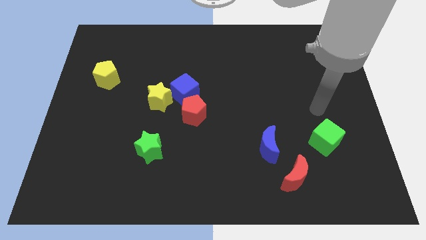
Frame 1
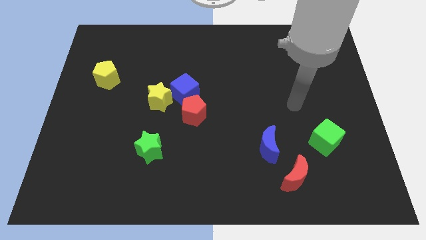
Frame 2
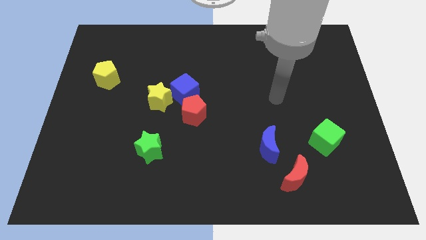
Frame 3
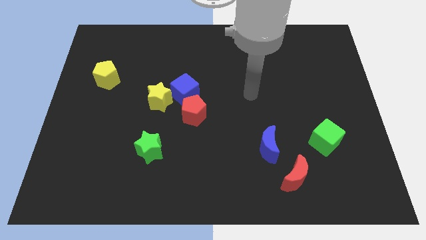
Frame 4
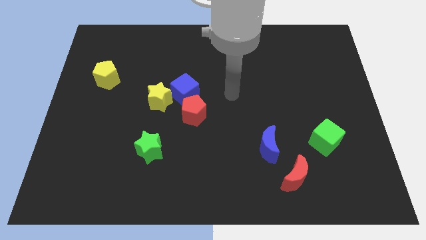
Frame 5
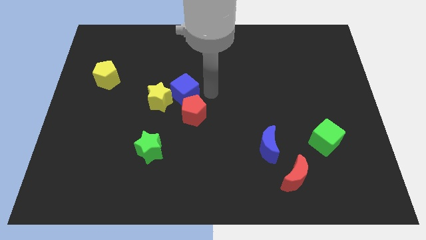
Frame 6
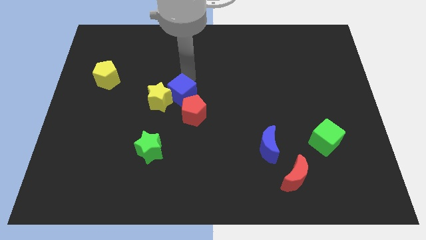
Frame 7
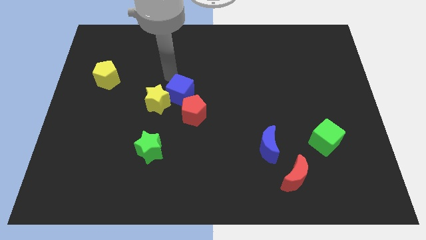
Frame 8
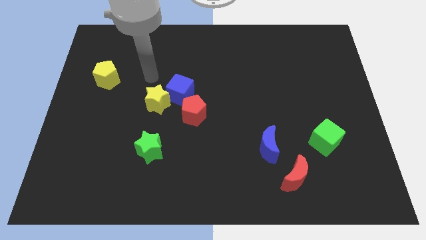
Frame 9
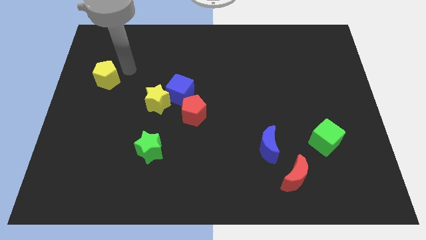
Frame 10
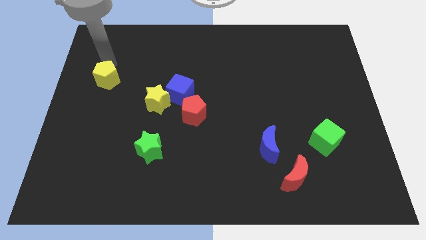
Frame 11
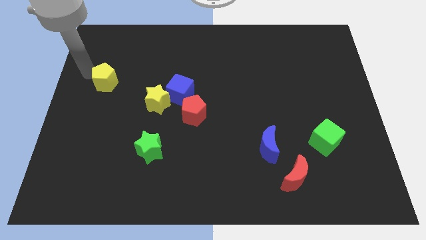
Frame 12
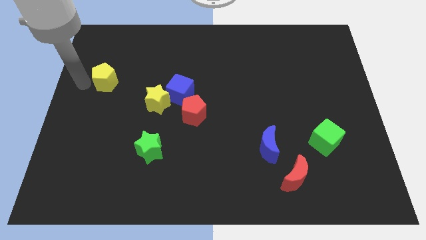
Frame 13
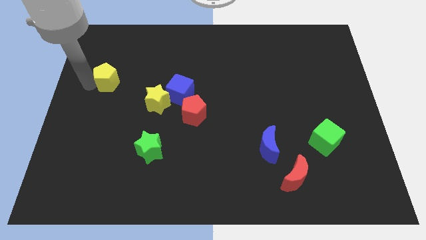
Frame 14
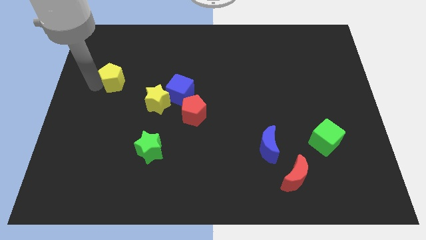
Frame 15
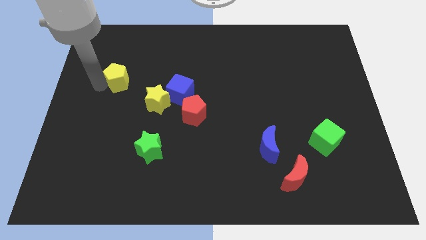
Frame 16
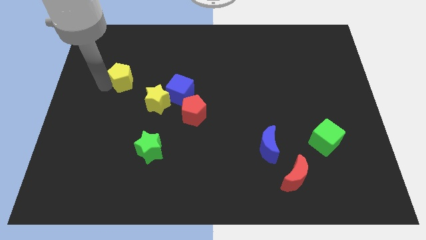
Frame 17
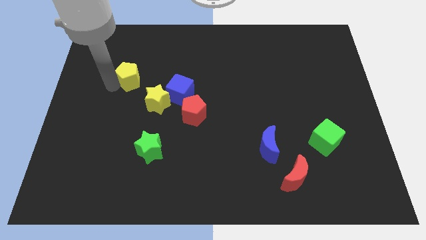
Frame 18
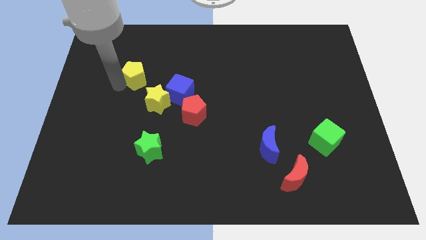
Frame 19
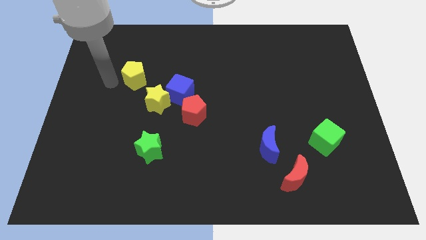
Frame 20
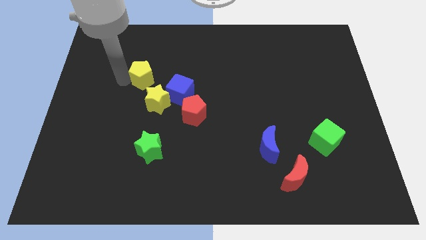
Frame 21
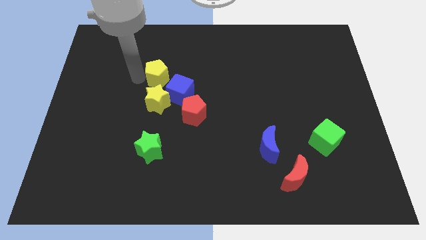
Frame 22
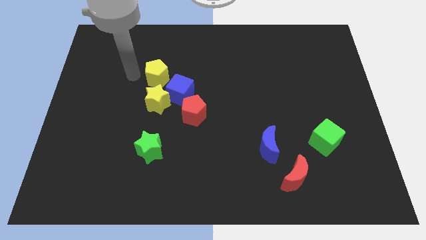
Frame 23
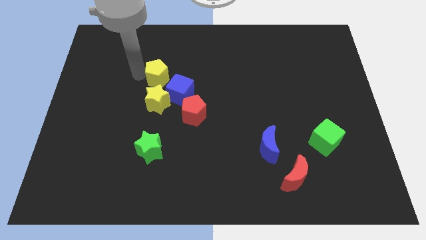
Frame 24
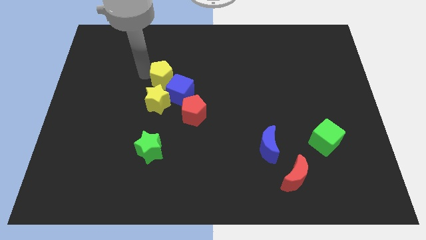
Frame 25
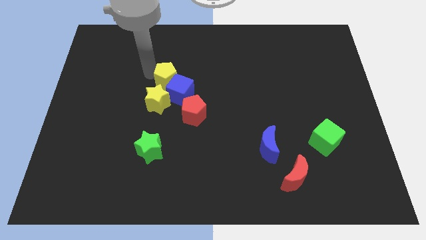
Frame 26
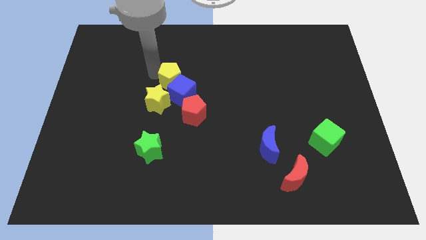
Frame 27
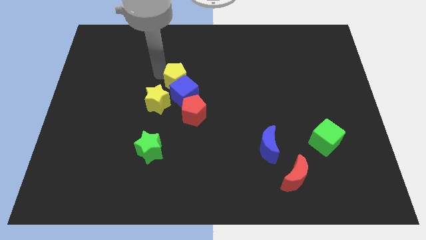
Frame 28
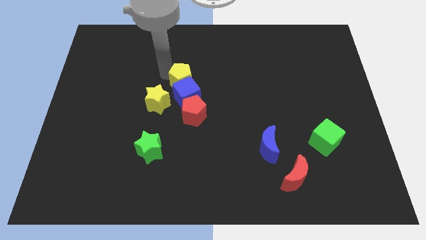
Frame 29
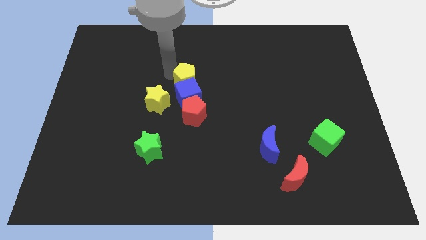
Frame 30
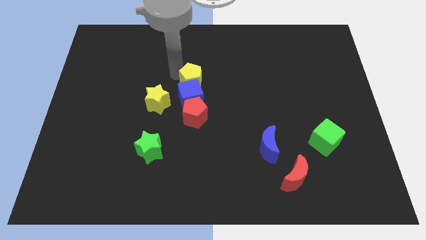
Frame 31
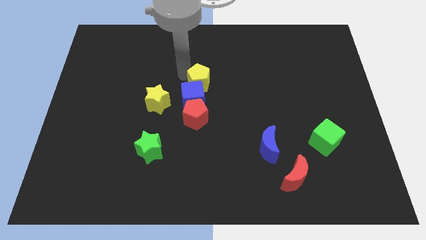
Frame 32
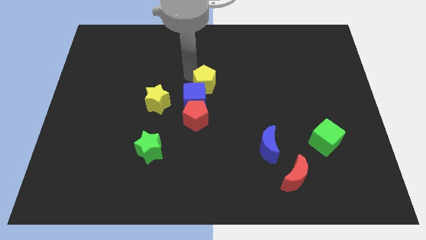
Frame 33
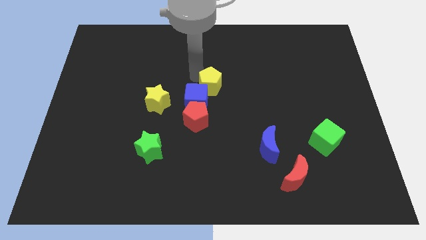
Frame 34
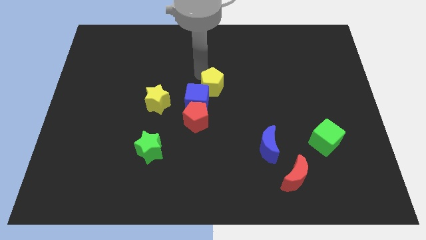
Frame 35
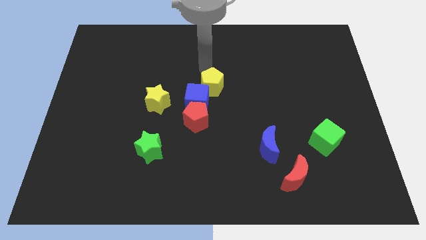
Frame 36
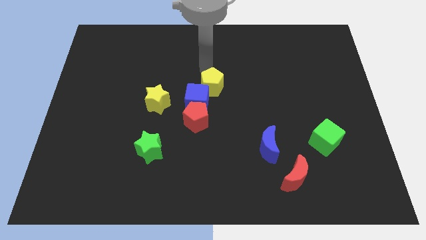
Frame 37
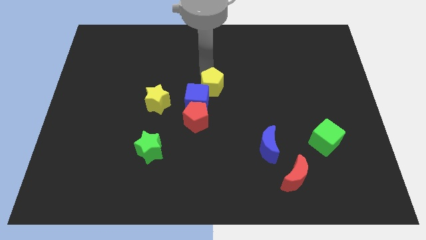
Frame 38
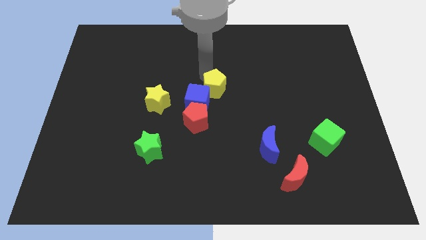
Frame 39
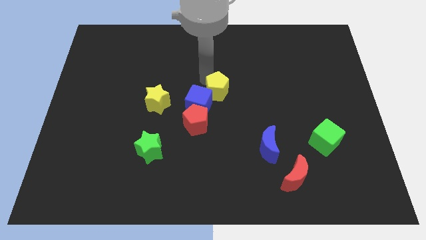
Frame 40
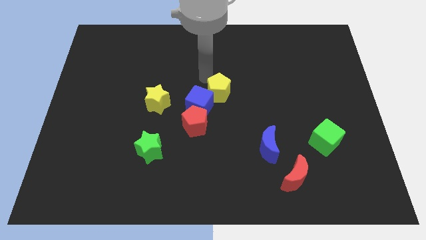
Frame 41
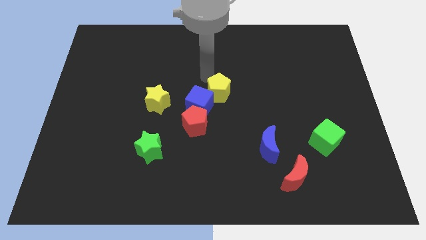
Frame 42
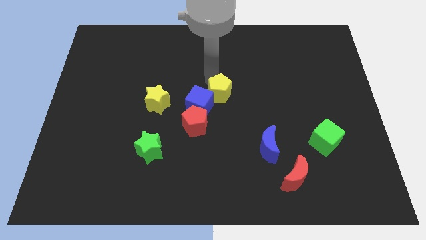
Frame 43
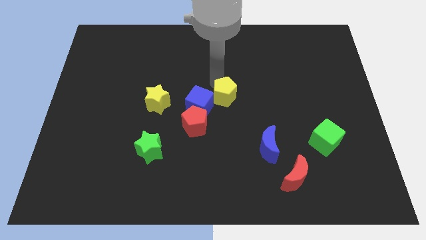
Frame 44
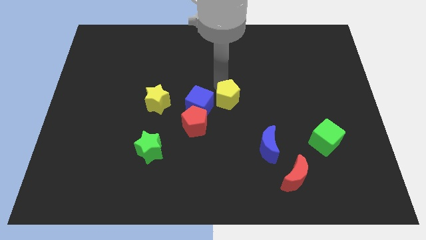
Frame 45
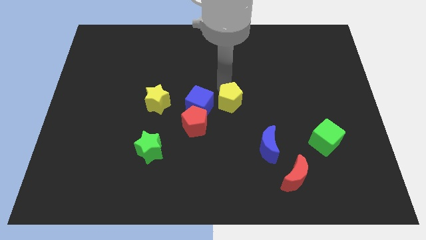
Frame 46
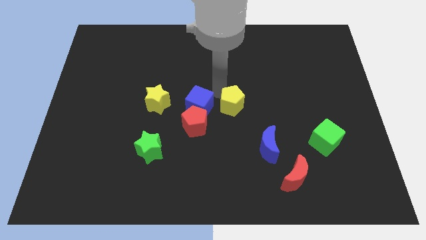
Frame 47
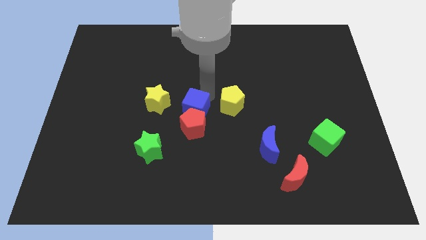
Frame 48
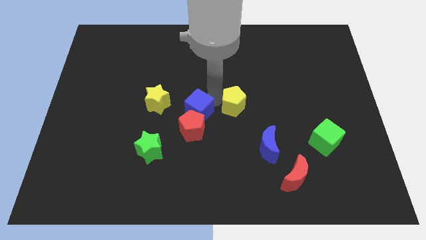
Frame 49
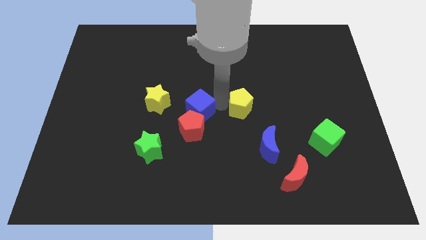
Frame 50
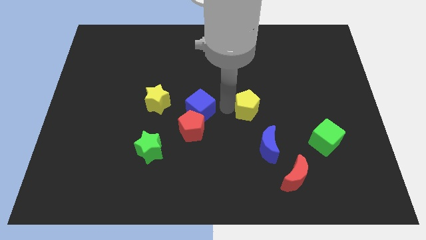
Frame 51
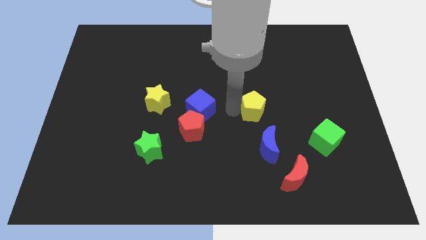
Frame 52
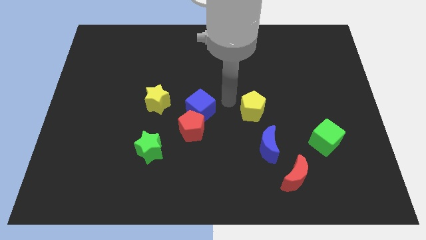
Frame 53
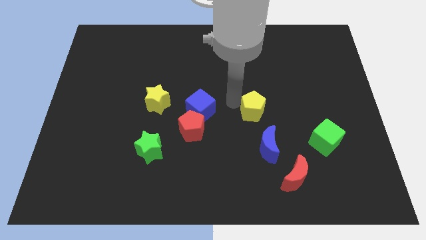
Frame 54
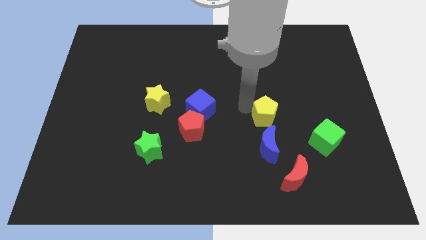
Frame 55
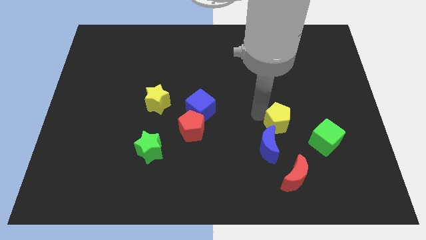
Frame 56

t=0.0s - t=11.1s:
push the yellow pentagon to the top left of the green cube

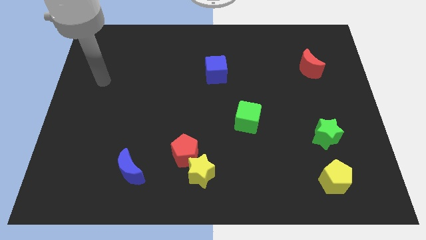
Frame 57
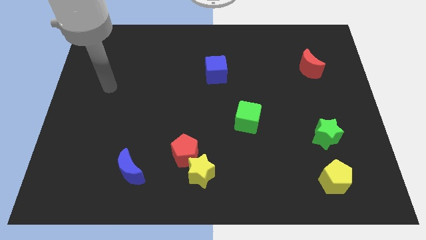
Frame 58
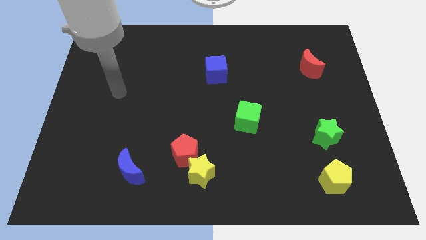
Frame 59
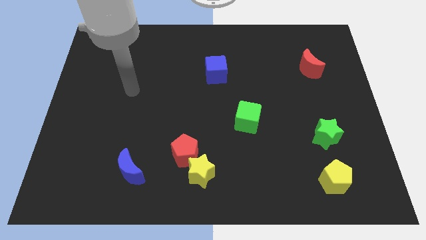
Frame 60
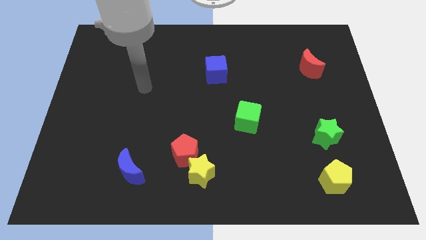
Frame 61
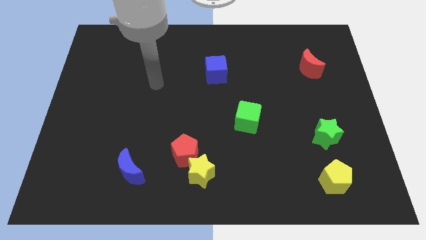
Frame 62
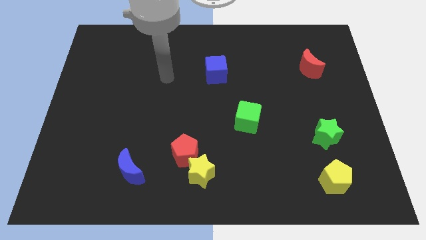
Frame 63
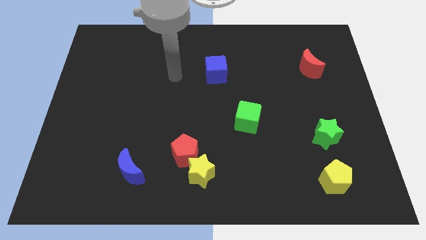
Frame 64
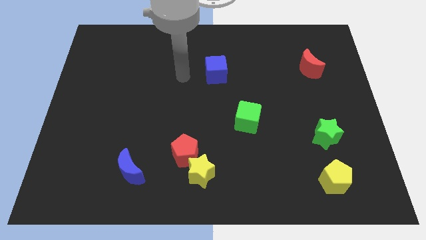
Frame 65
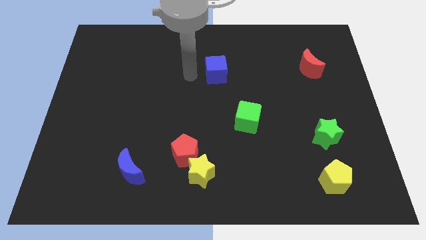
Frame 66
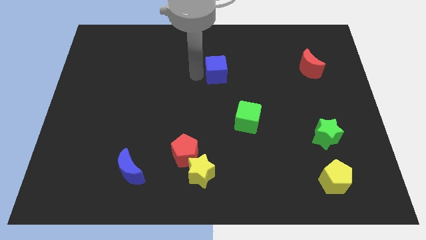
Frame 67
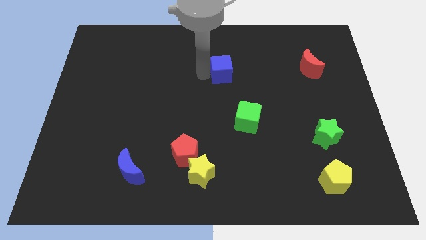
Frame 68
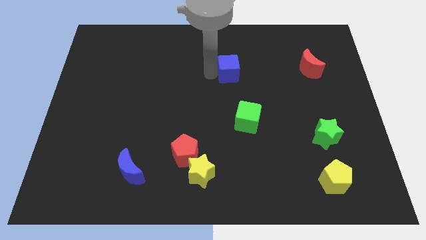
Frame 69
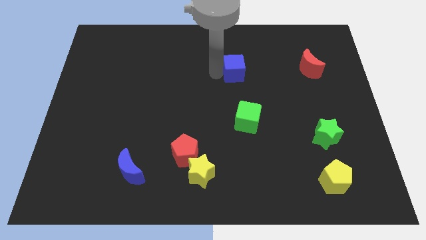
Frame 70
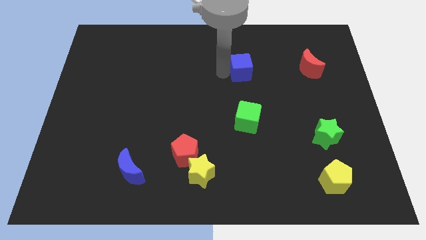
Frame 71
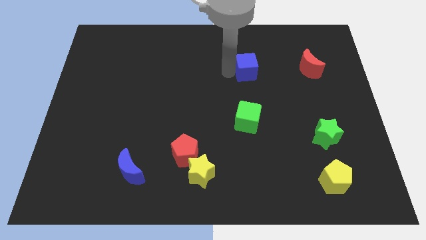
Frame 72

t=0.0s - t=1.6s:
push the blue cube to the left of the red moon
